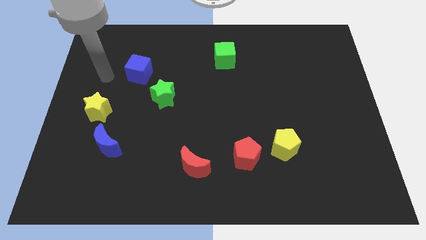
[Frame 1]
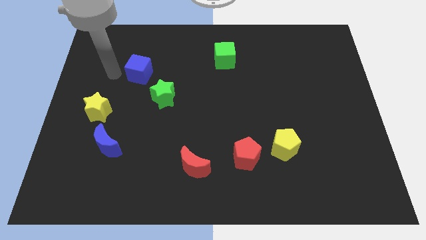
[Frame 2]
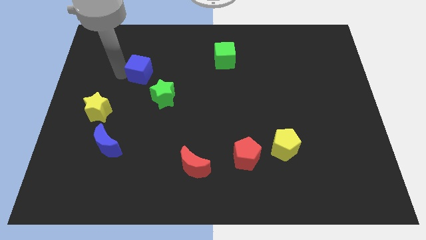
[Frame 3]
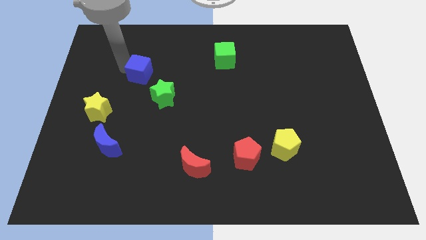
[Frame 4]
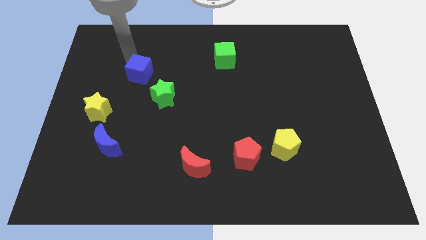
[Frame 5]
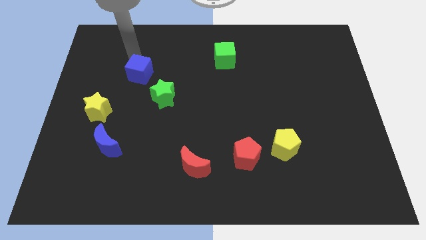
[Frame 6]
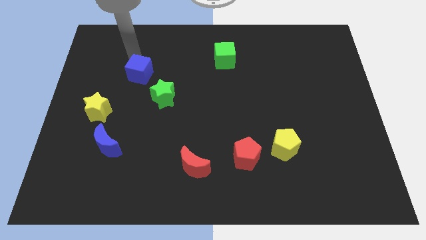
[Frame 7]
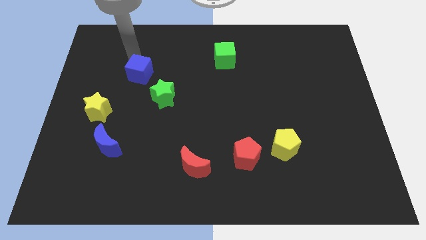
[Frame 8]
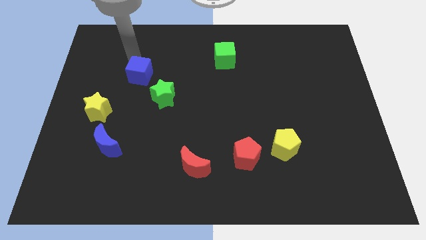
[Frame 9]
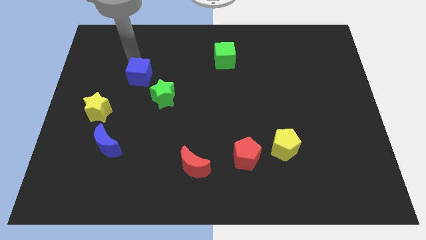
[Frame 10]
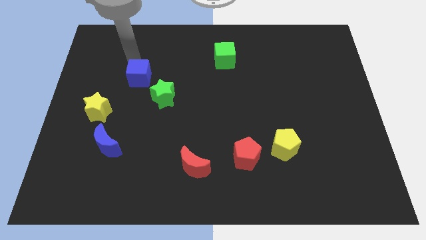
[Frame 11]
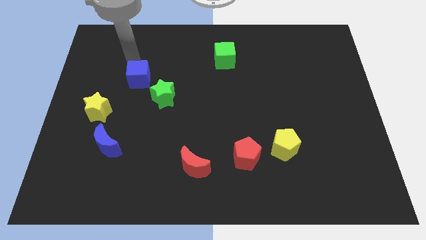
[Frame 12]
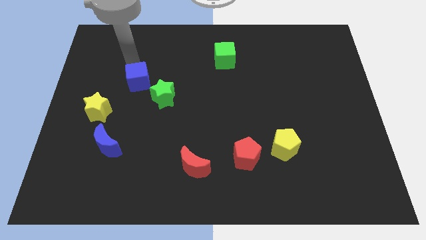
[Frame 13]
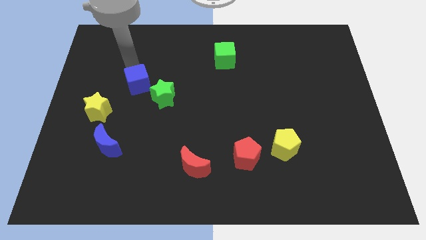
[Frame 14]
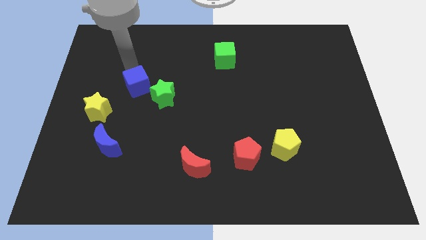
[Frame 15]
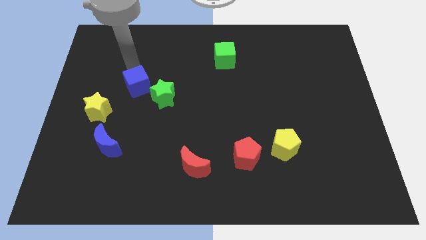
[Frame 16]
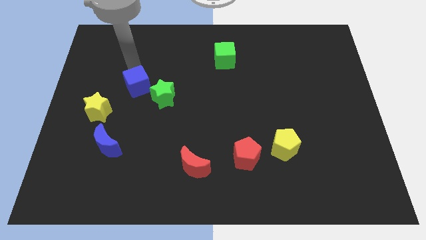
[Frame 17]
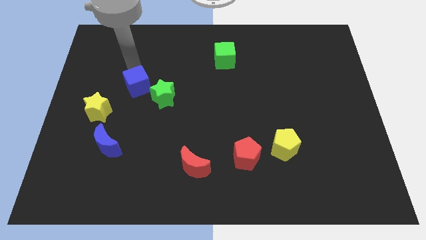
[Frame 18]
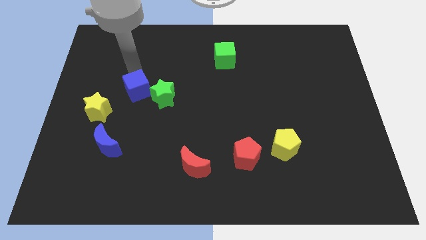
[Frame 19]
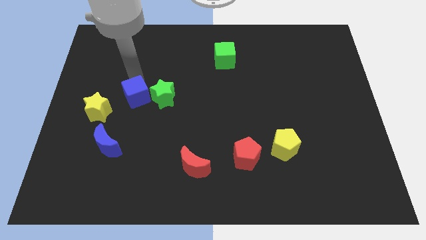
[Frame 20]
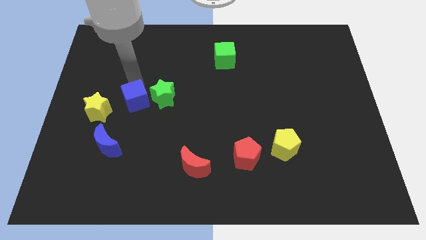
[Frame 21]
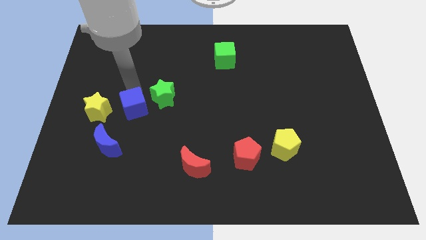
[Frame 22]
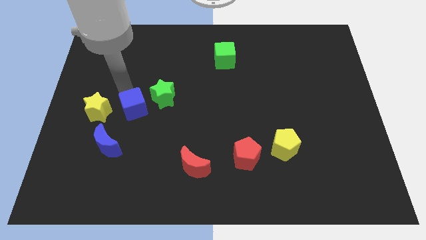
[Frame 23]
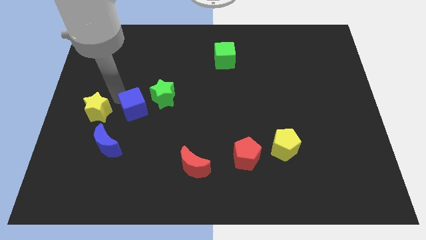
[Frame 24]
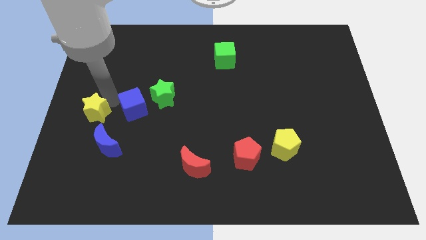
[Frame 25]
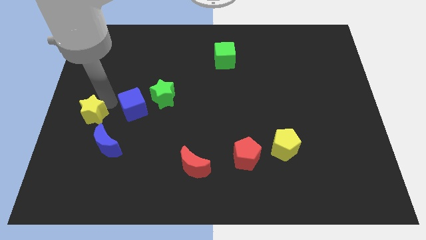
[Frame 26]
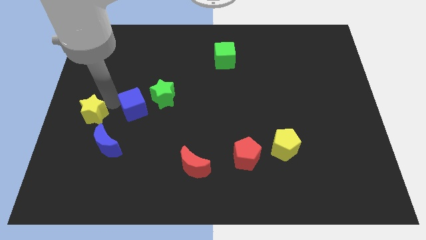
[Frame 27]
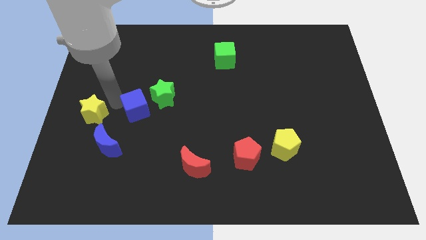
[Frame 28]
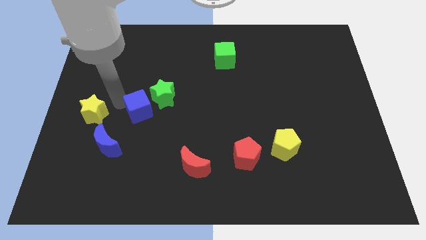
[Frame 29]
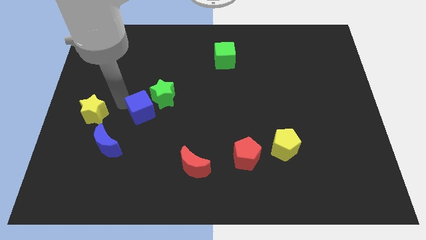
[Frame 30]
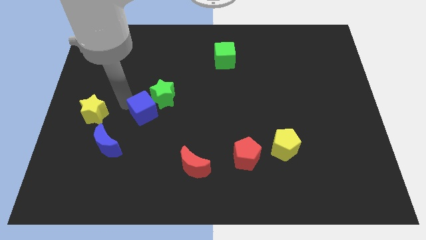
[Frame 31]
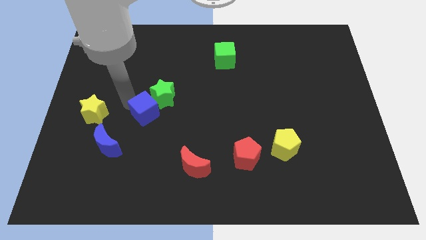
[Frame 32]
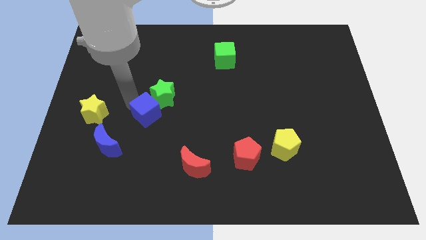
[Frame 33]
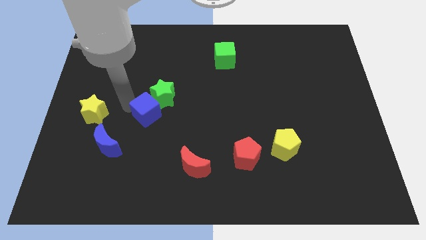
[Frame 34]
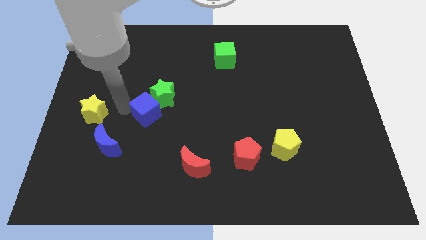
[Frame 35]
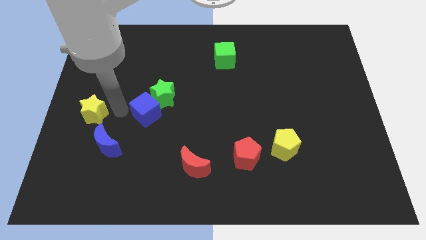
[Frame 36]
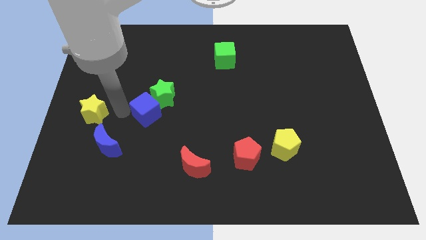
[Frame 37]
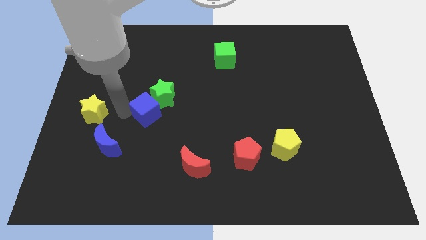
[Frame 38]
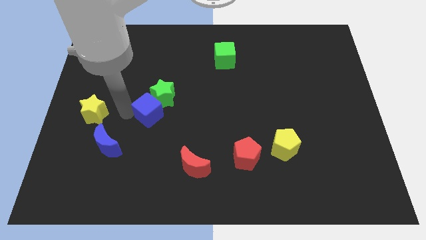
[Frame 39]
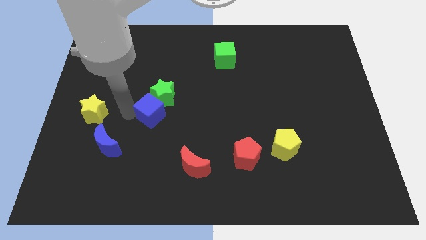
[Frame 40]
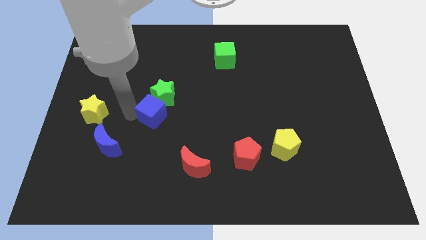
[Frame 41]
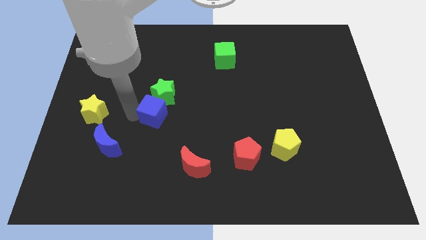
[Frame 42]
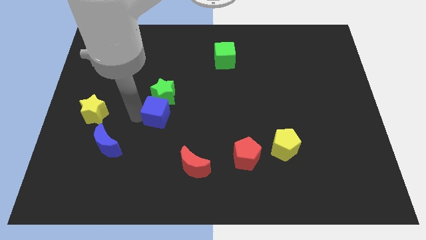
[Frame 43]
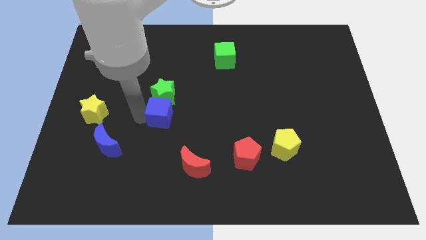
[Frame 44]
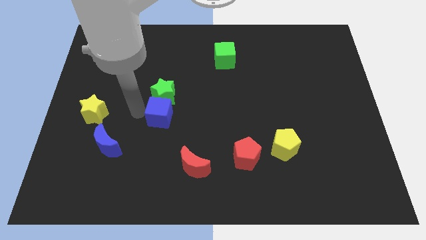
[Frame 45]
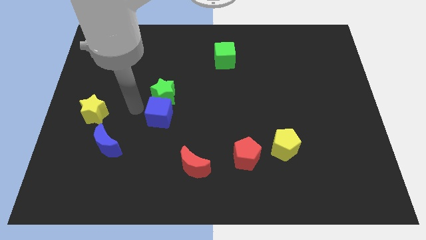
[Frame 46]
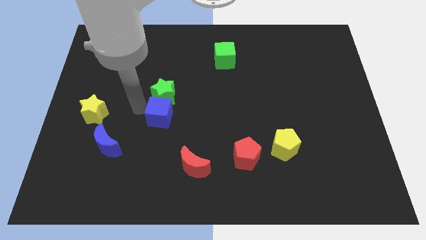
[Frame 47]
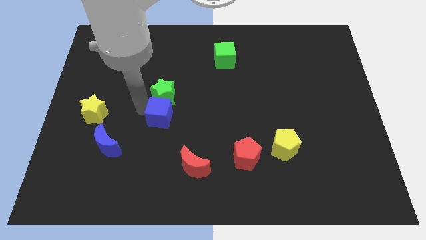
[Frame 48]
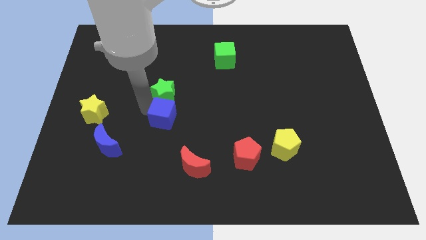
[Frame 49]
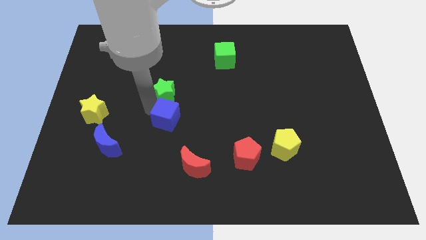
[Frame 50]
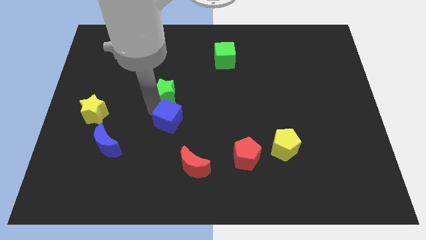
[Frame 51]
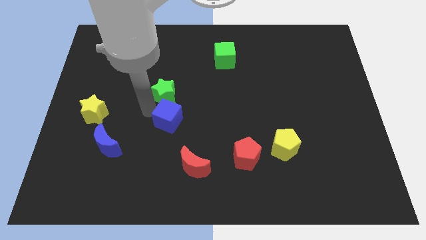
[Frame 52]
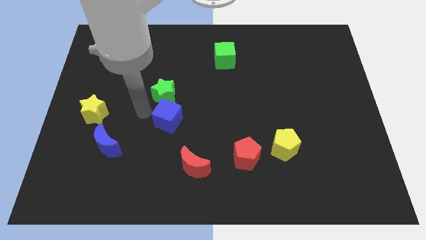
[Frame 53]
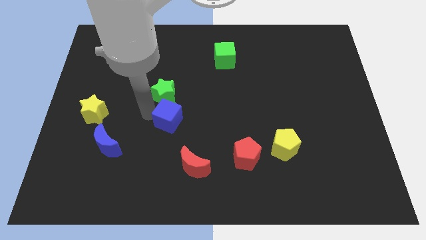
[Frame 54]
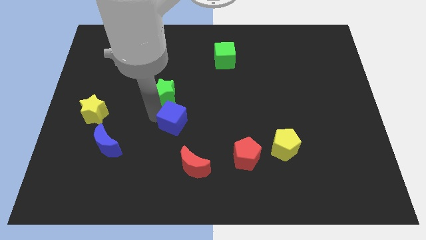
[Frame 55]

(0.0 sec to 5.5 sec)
move the blue cube to the top side of the red moon

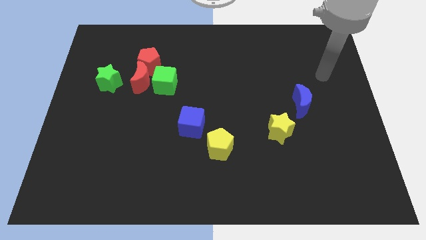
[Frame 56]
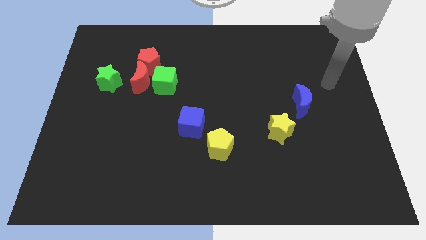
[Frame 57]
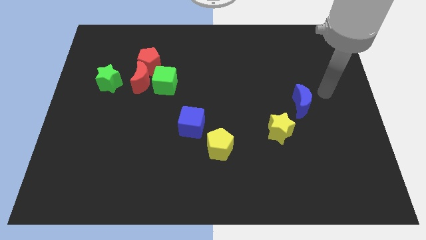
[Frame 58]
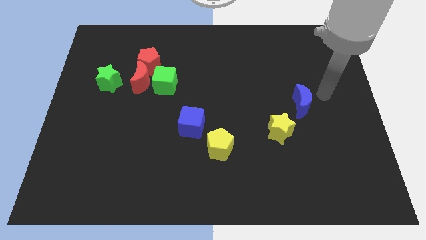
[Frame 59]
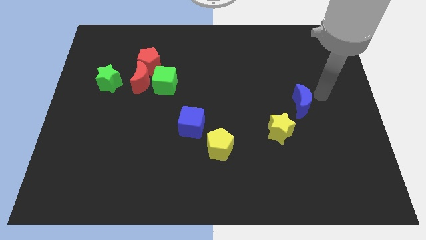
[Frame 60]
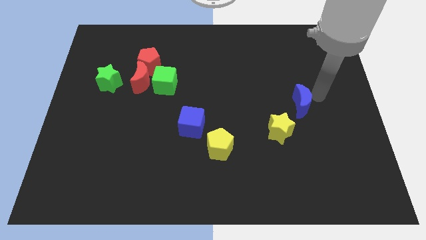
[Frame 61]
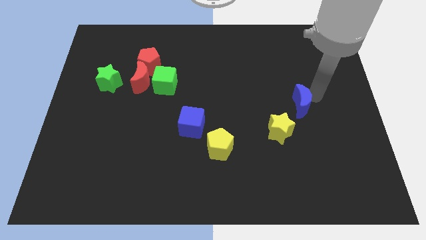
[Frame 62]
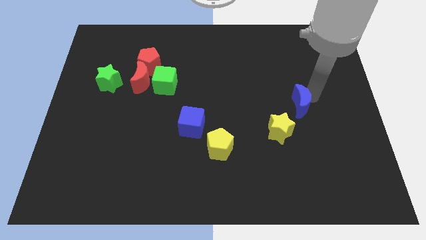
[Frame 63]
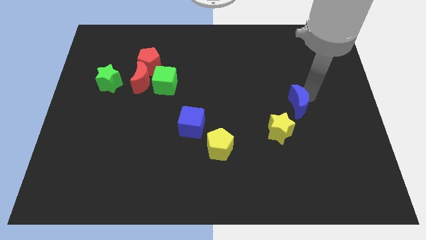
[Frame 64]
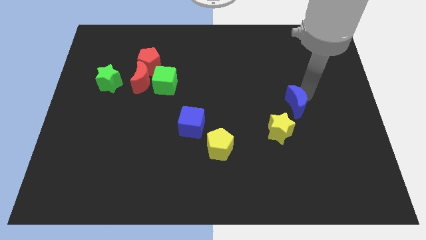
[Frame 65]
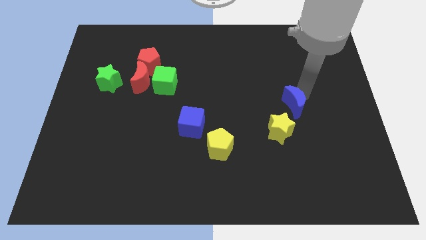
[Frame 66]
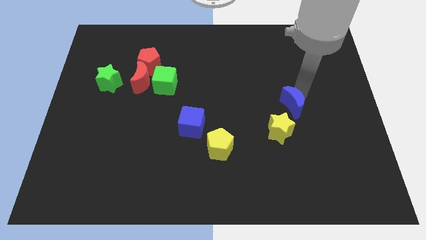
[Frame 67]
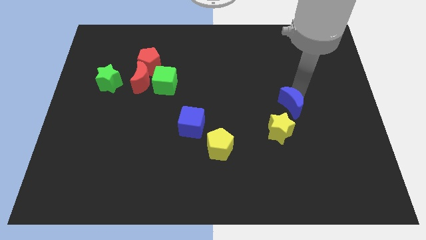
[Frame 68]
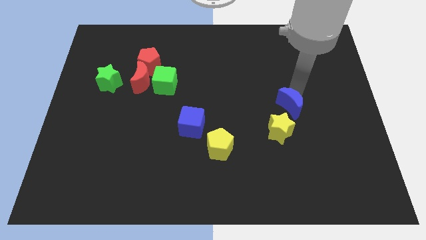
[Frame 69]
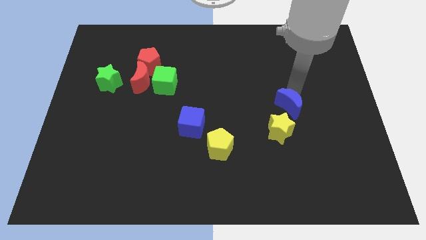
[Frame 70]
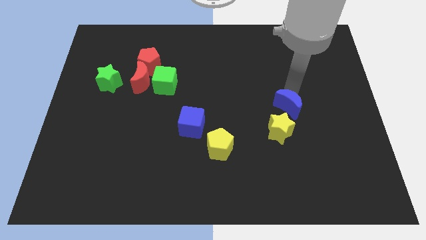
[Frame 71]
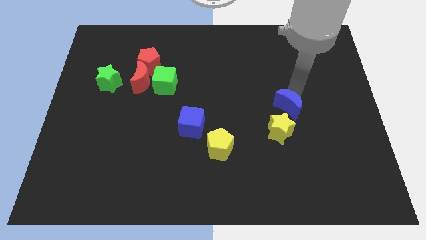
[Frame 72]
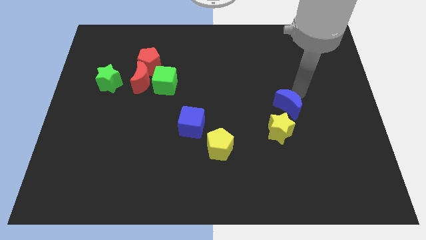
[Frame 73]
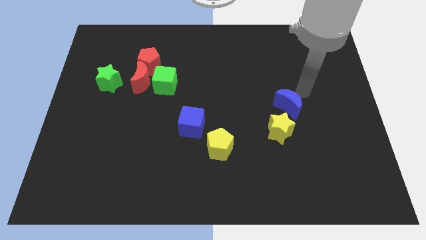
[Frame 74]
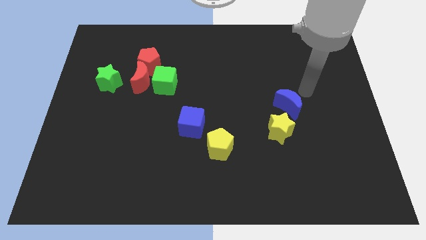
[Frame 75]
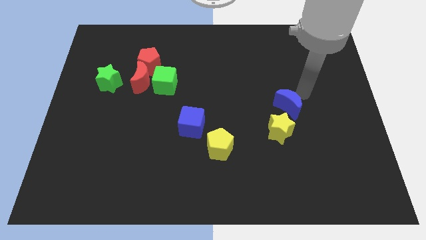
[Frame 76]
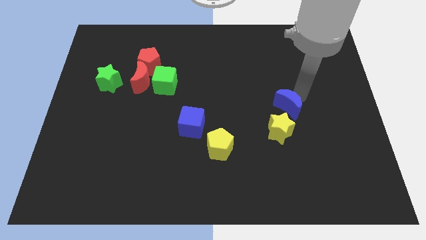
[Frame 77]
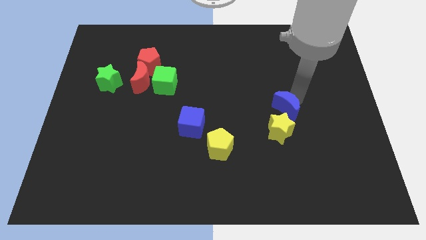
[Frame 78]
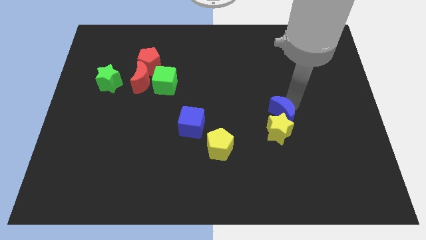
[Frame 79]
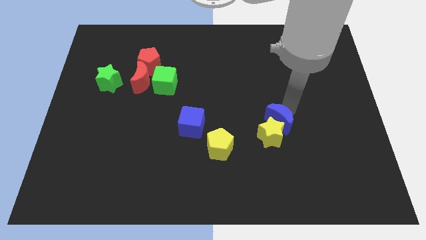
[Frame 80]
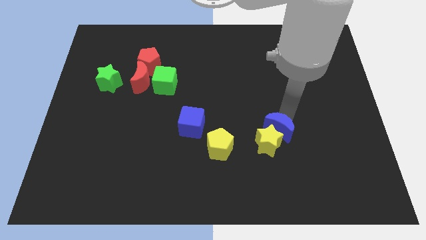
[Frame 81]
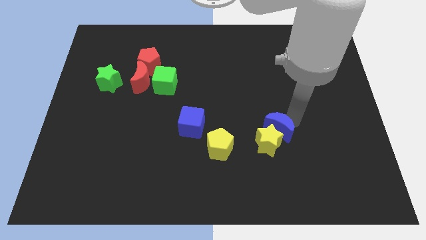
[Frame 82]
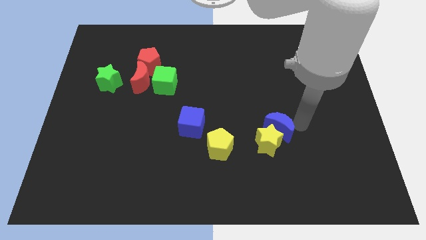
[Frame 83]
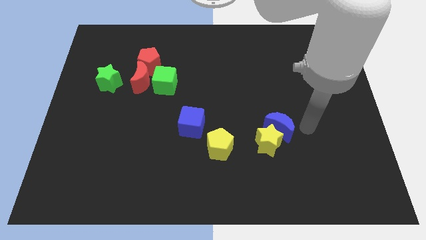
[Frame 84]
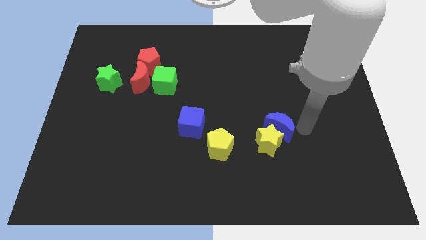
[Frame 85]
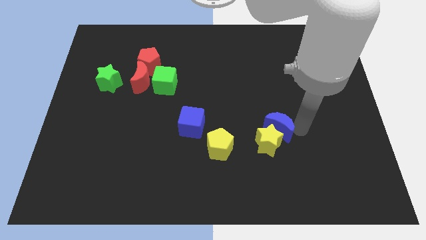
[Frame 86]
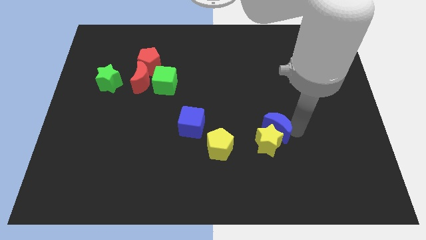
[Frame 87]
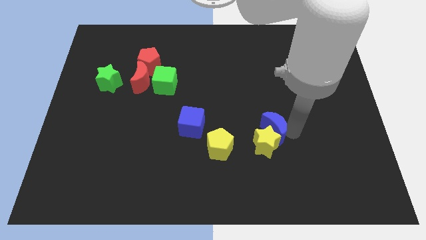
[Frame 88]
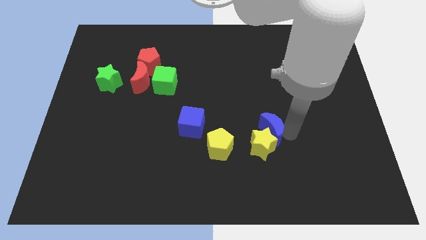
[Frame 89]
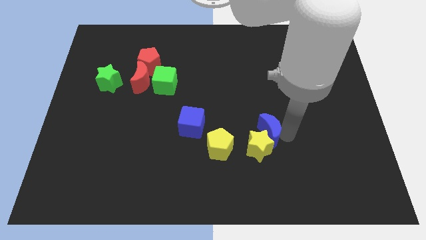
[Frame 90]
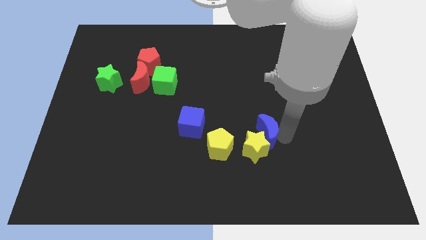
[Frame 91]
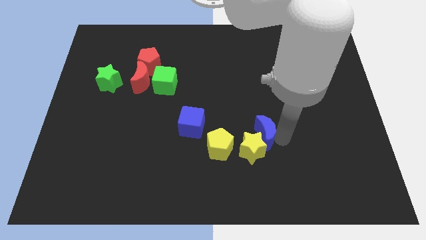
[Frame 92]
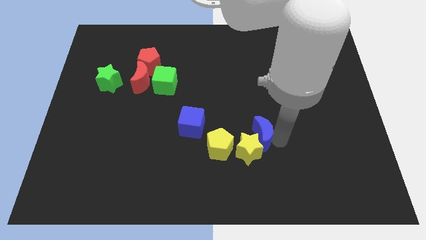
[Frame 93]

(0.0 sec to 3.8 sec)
slide the blue moon diagonally up and to the right of the yellow pentagon
